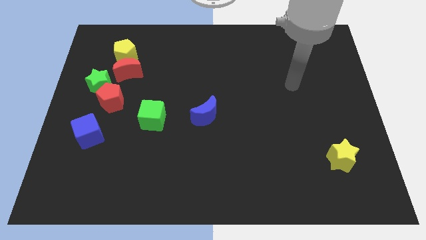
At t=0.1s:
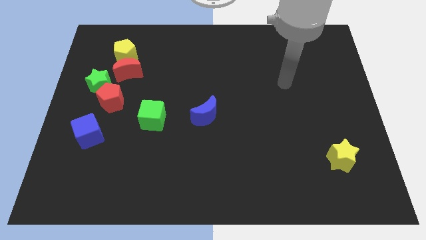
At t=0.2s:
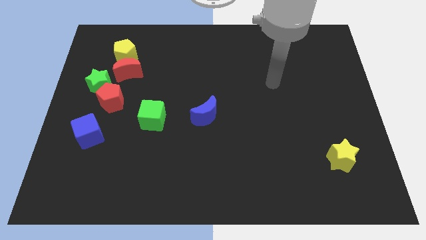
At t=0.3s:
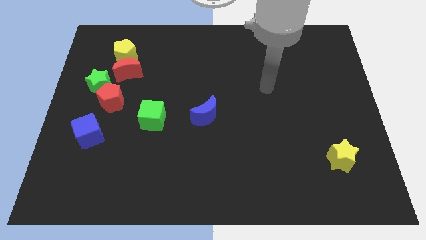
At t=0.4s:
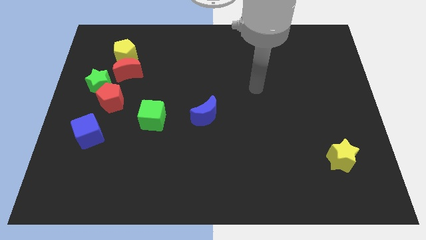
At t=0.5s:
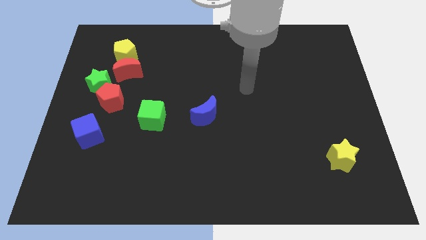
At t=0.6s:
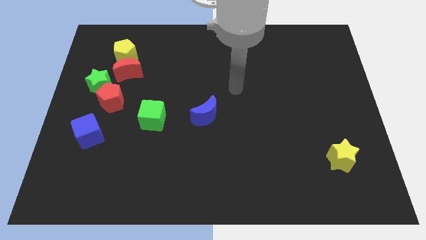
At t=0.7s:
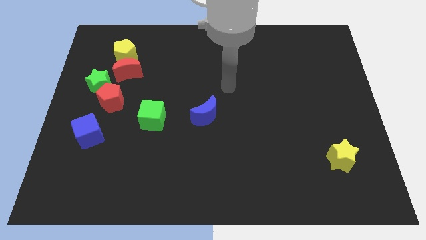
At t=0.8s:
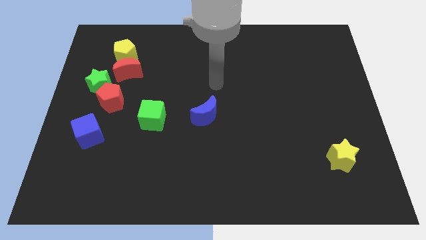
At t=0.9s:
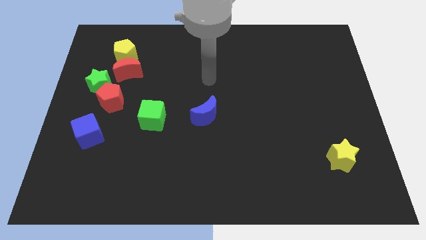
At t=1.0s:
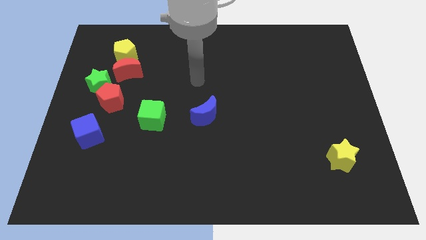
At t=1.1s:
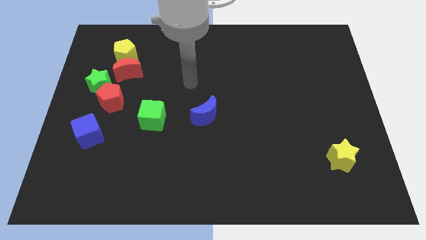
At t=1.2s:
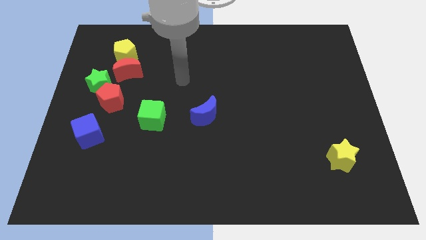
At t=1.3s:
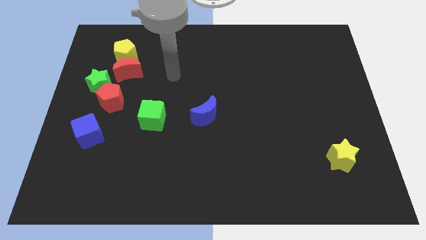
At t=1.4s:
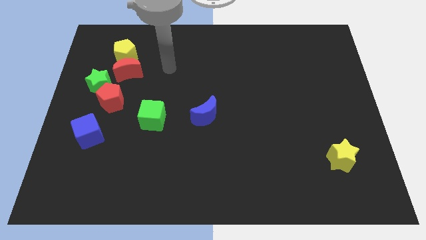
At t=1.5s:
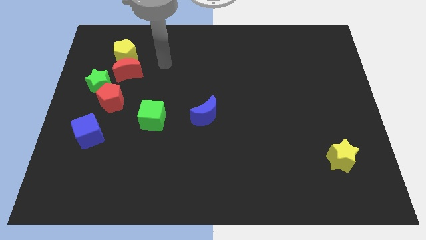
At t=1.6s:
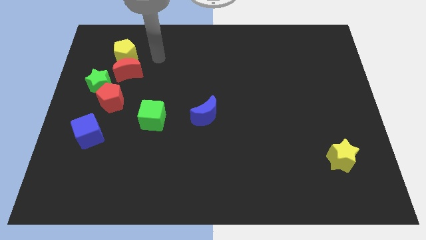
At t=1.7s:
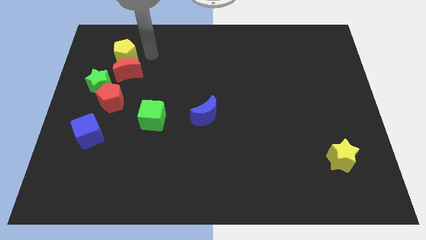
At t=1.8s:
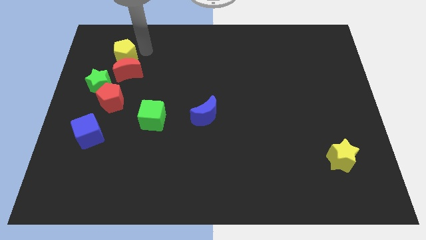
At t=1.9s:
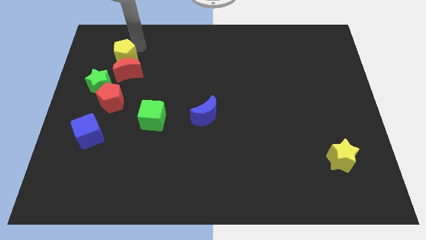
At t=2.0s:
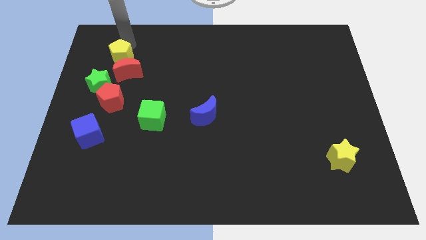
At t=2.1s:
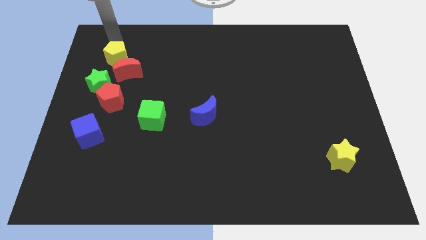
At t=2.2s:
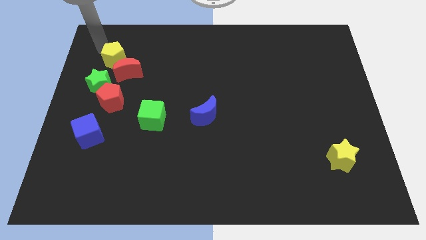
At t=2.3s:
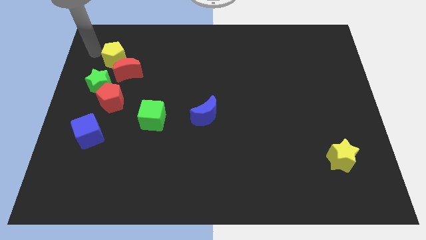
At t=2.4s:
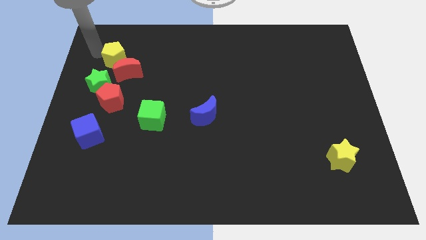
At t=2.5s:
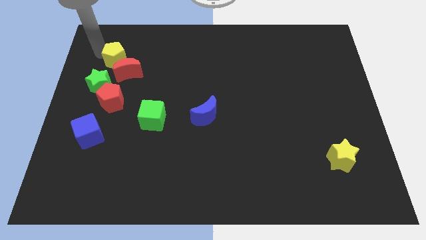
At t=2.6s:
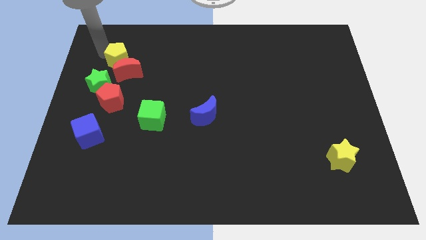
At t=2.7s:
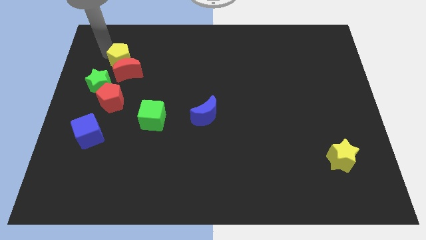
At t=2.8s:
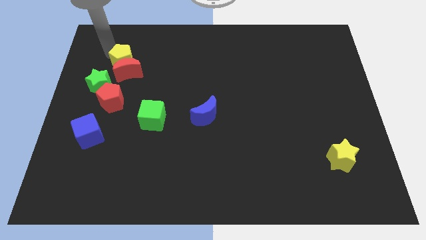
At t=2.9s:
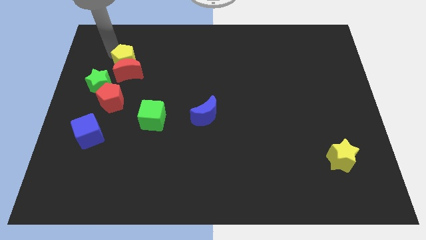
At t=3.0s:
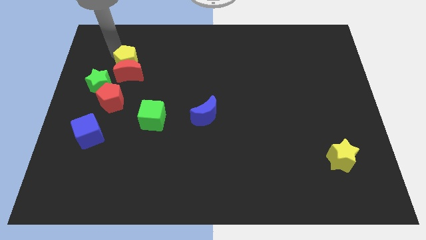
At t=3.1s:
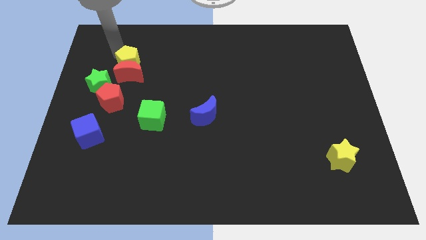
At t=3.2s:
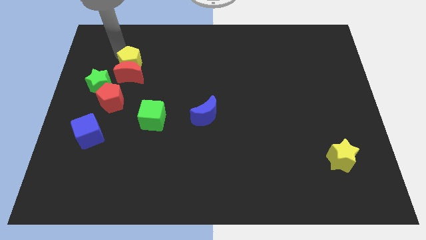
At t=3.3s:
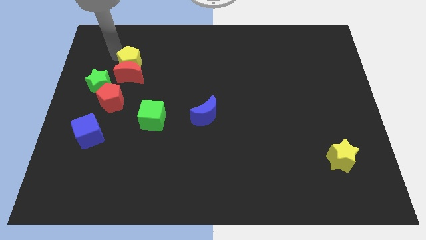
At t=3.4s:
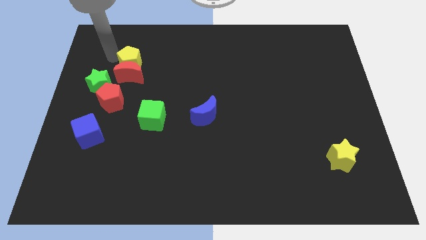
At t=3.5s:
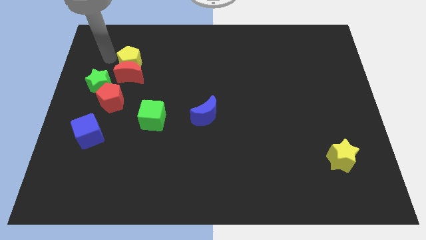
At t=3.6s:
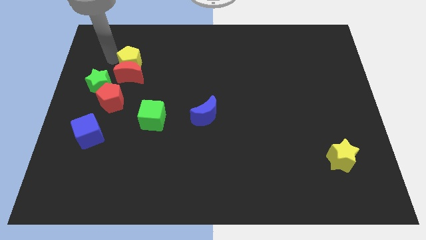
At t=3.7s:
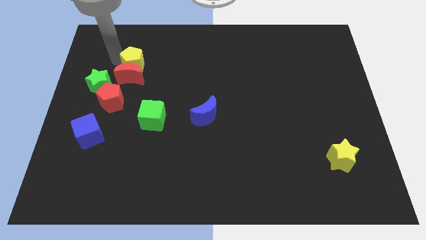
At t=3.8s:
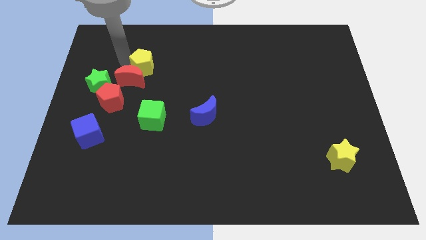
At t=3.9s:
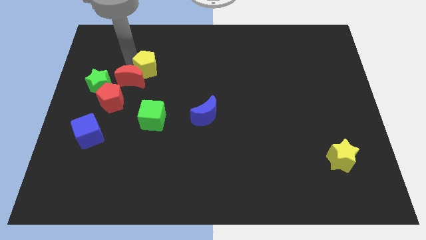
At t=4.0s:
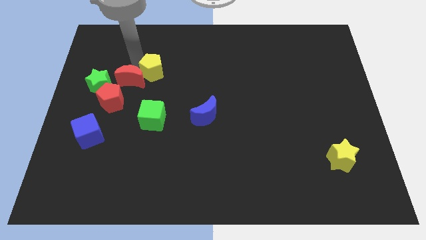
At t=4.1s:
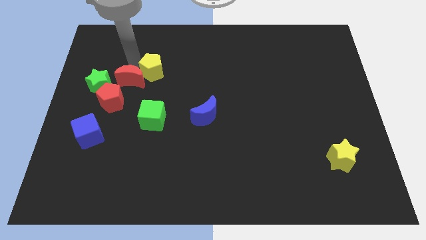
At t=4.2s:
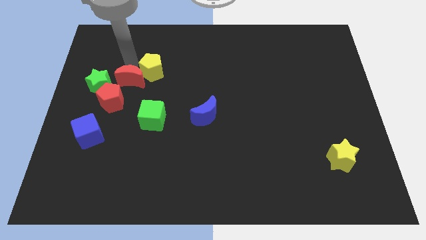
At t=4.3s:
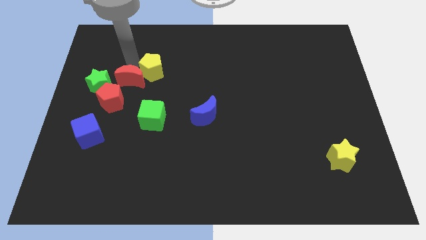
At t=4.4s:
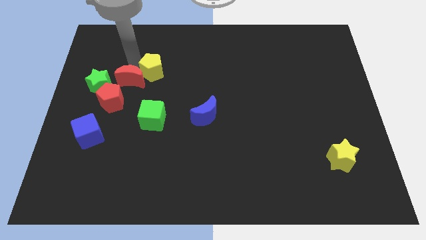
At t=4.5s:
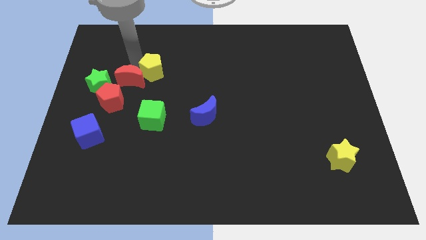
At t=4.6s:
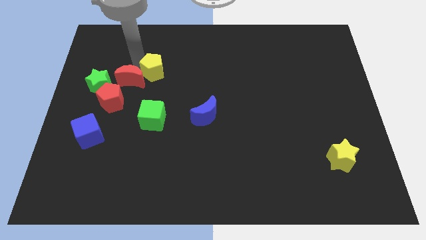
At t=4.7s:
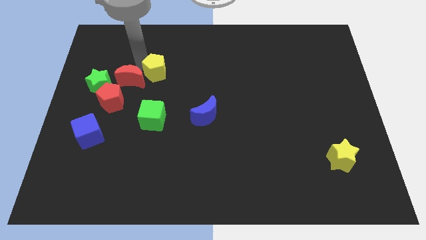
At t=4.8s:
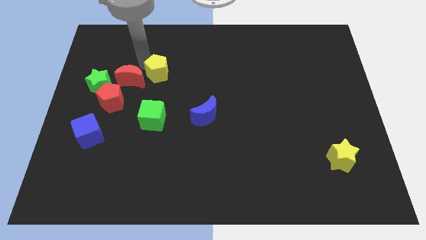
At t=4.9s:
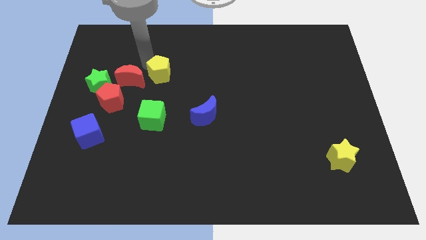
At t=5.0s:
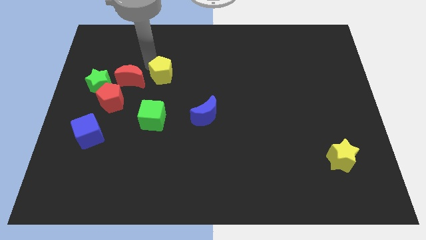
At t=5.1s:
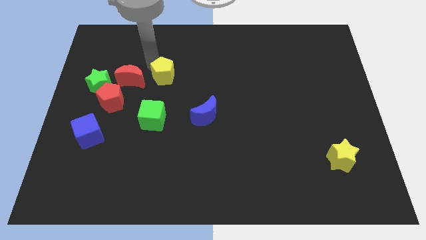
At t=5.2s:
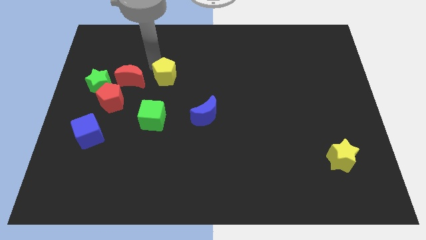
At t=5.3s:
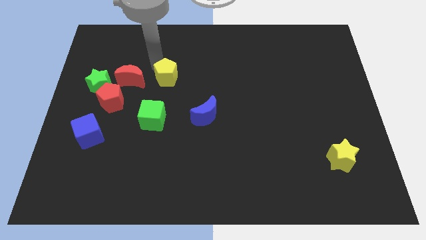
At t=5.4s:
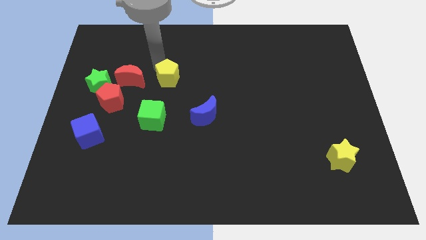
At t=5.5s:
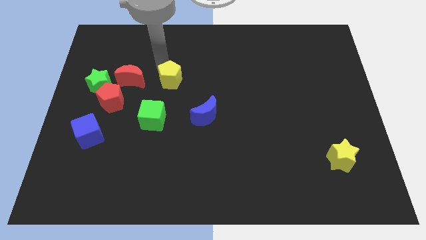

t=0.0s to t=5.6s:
move the yellow pentagon to the center

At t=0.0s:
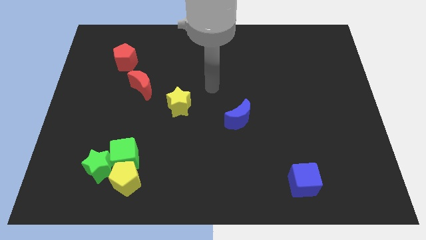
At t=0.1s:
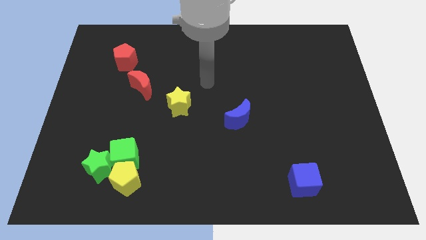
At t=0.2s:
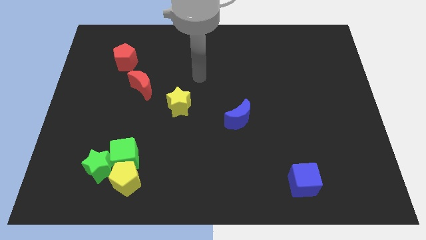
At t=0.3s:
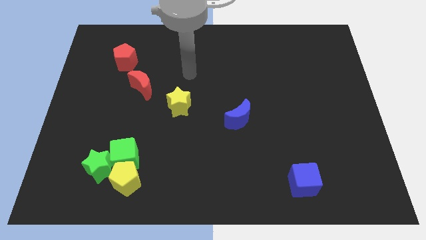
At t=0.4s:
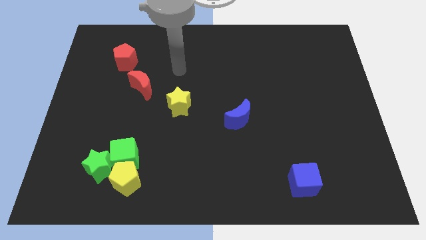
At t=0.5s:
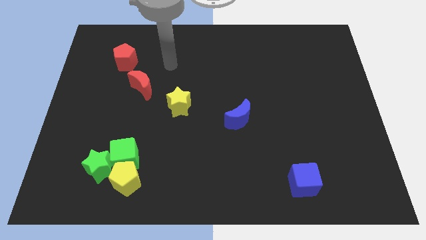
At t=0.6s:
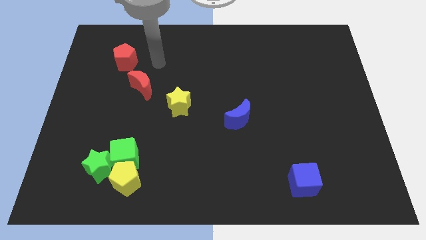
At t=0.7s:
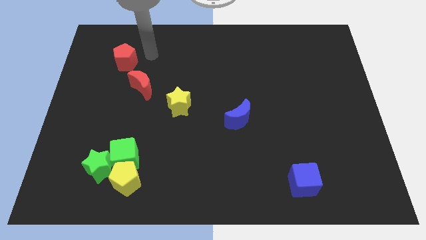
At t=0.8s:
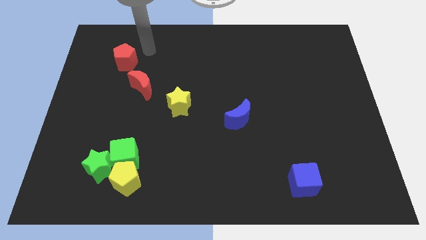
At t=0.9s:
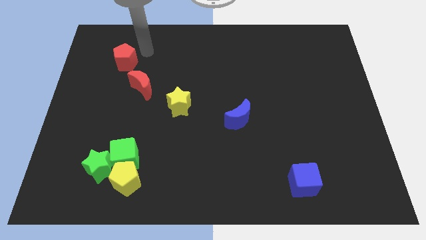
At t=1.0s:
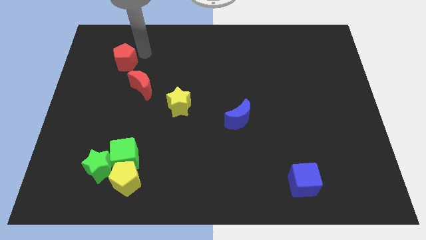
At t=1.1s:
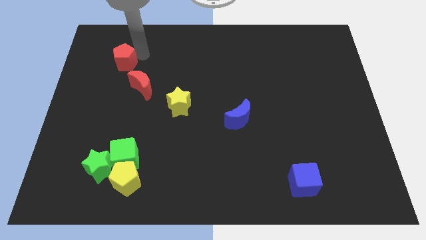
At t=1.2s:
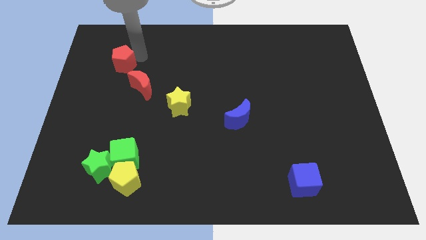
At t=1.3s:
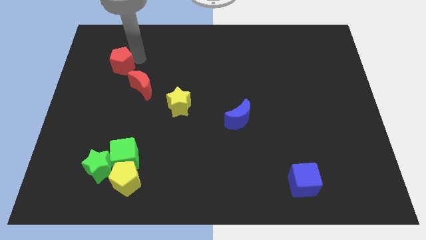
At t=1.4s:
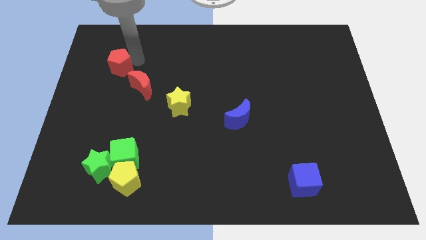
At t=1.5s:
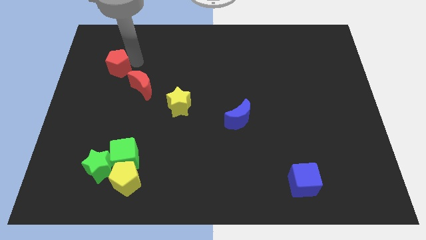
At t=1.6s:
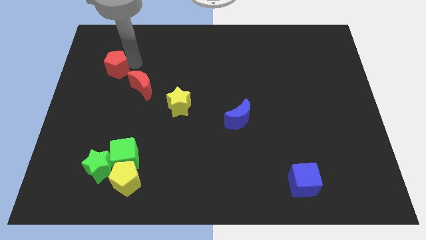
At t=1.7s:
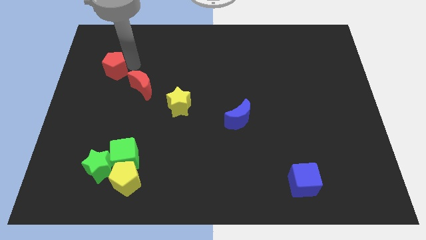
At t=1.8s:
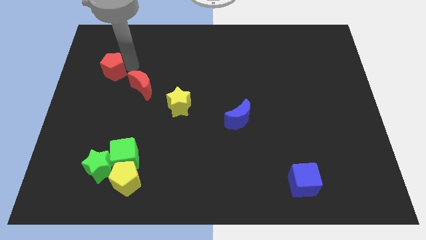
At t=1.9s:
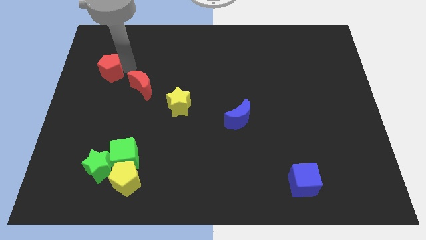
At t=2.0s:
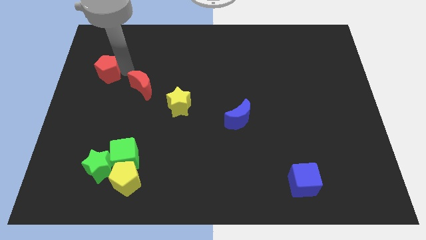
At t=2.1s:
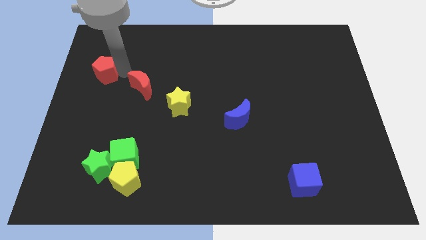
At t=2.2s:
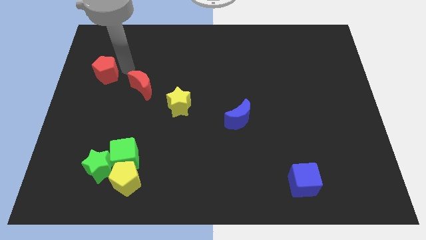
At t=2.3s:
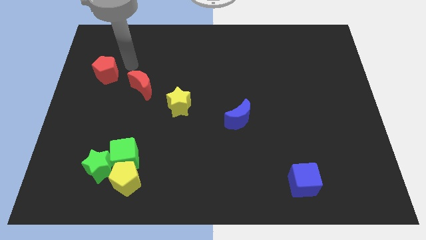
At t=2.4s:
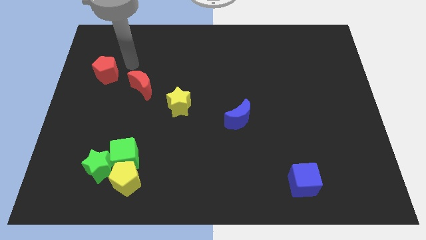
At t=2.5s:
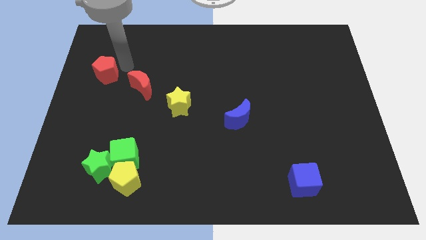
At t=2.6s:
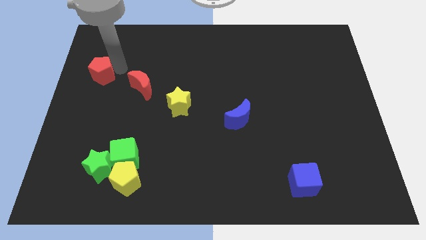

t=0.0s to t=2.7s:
move the red pentagon to the left side of the board

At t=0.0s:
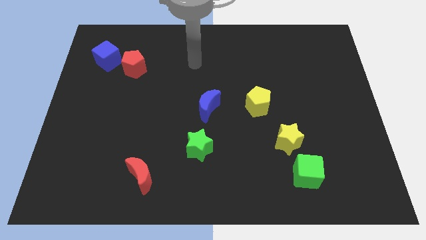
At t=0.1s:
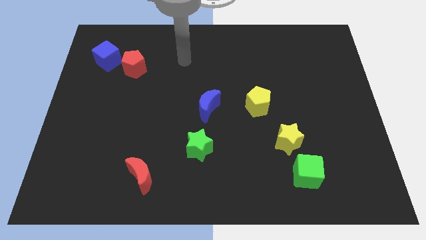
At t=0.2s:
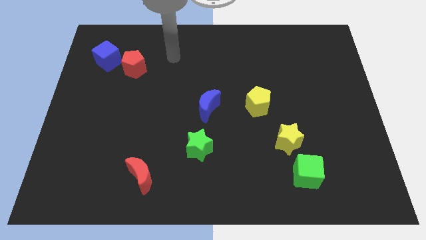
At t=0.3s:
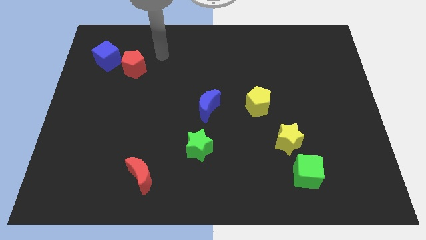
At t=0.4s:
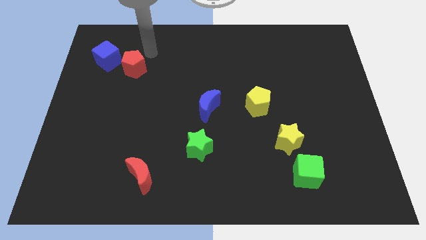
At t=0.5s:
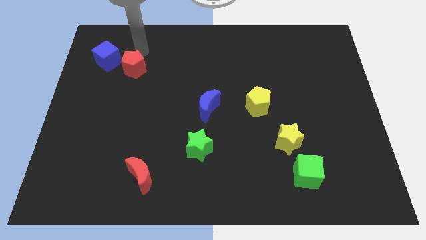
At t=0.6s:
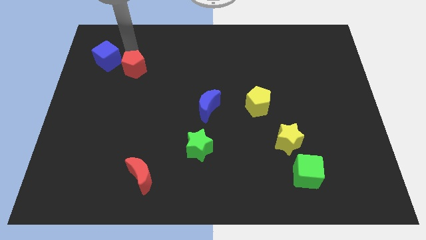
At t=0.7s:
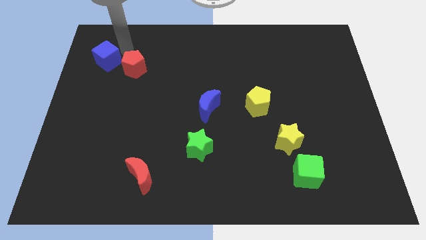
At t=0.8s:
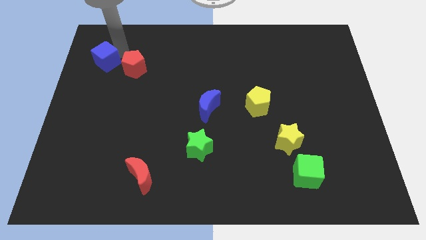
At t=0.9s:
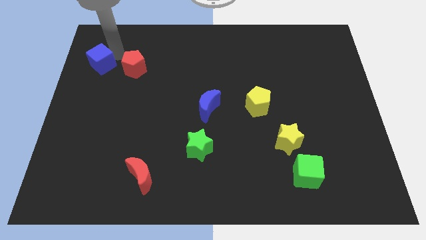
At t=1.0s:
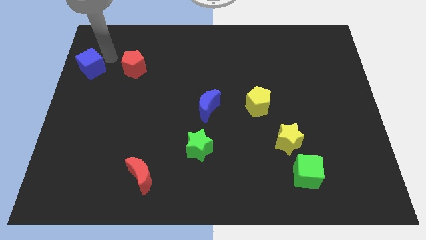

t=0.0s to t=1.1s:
put the blue cube to the left side
